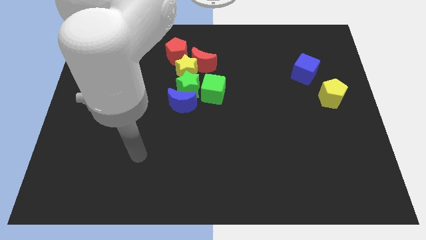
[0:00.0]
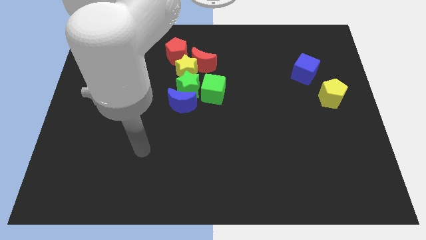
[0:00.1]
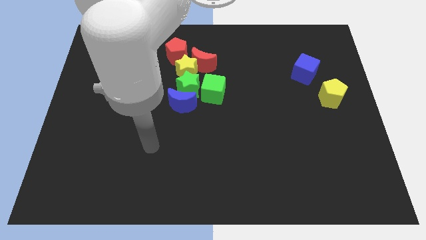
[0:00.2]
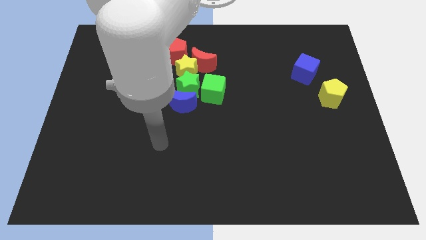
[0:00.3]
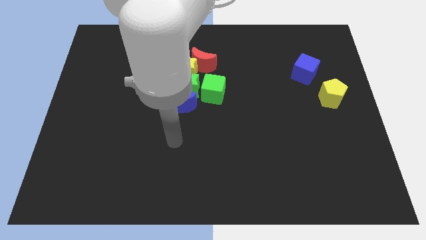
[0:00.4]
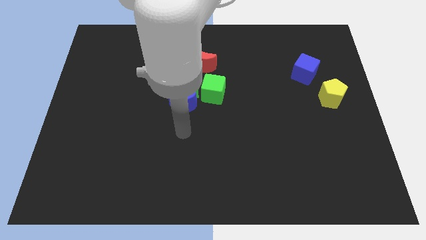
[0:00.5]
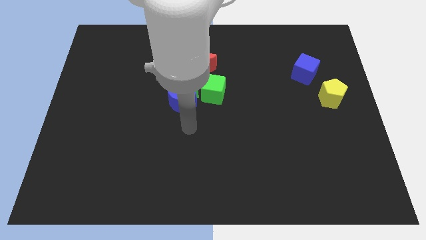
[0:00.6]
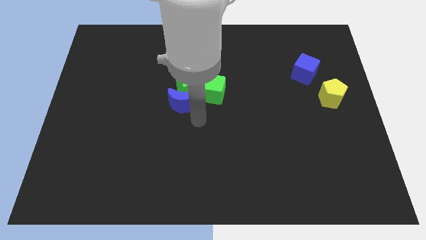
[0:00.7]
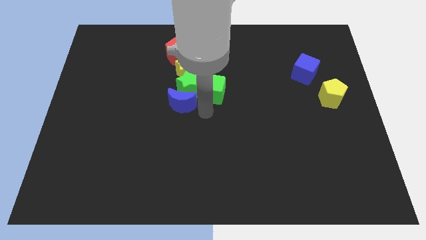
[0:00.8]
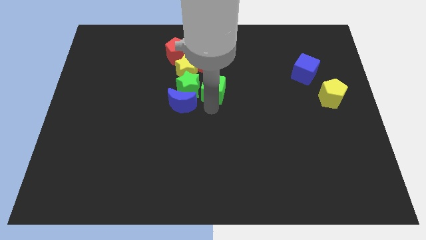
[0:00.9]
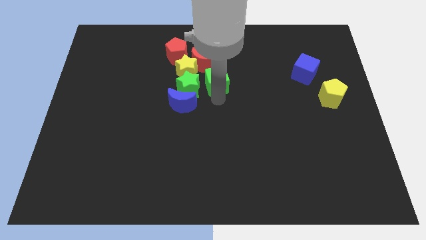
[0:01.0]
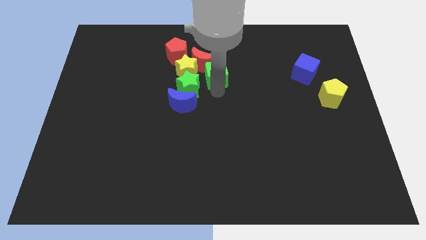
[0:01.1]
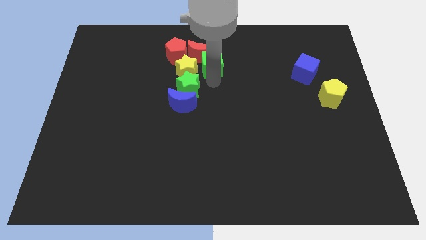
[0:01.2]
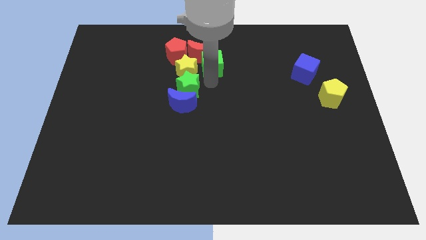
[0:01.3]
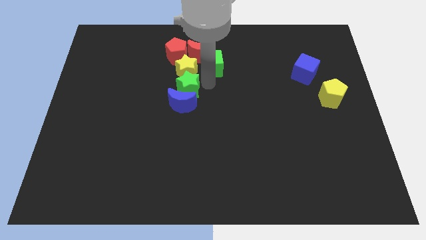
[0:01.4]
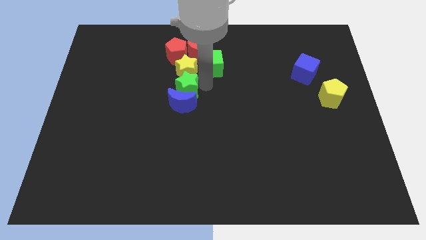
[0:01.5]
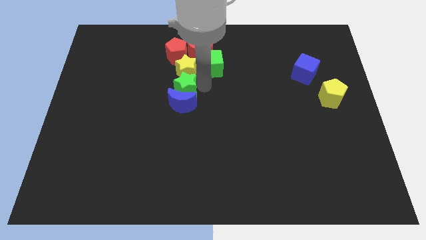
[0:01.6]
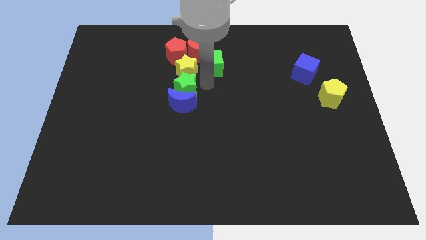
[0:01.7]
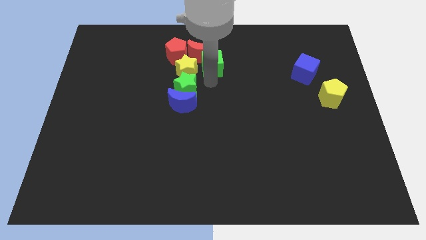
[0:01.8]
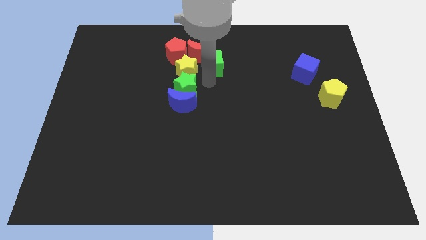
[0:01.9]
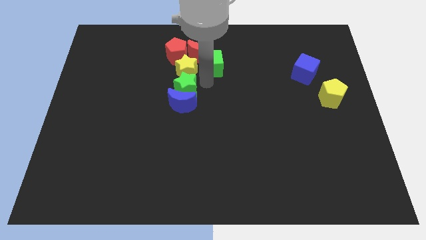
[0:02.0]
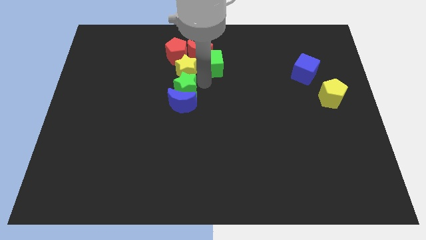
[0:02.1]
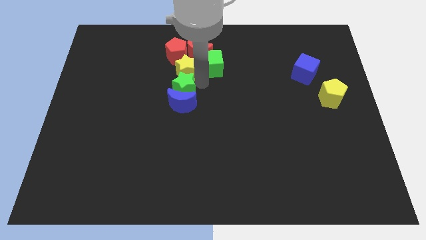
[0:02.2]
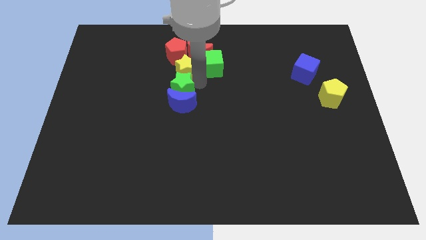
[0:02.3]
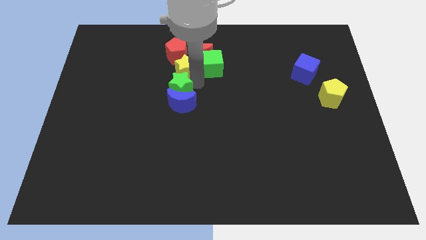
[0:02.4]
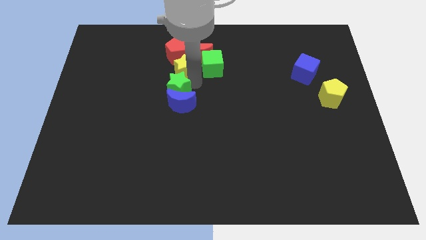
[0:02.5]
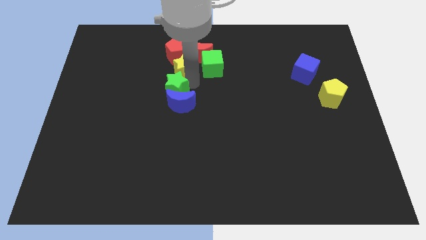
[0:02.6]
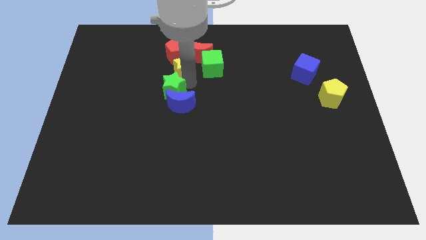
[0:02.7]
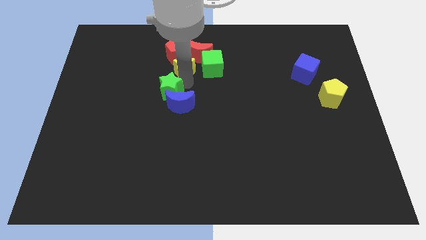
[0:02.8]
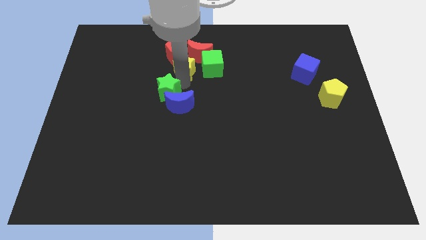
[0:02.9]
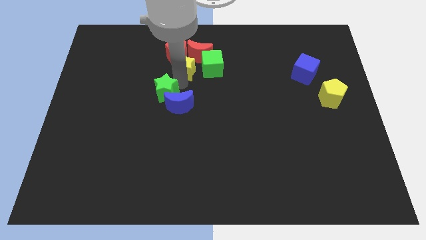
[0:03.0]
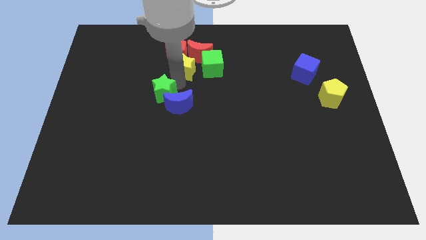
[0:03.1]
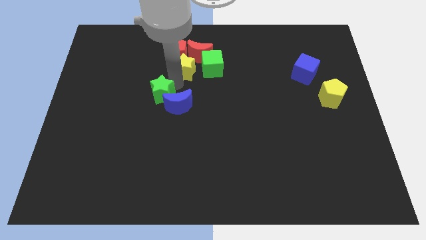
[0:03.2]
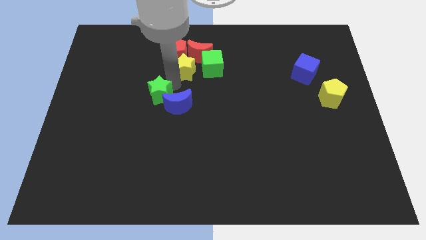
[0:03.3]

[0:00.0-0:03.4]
separate the green star from the group of blocks

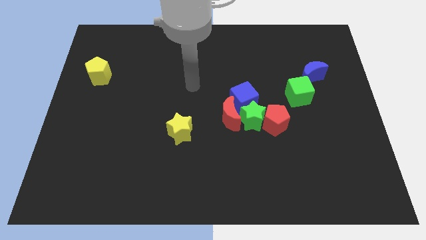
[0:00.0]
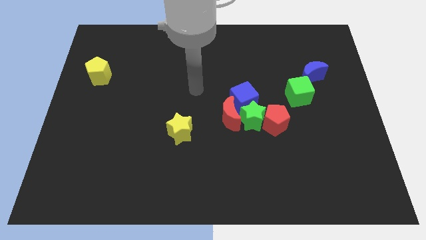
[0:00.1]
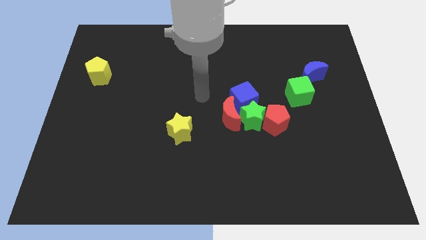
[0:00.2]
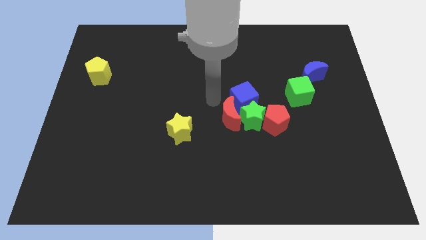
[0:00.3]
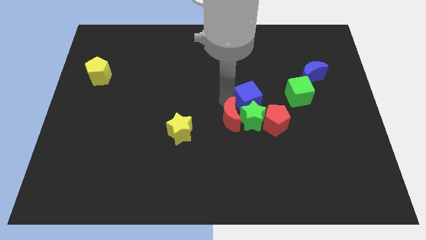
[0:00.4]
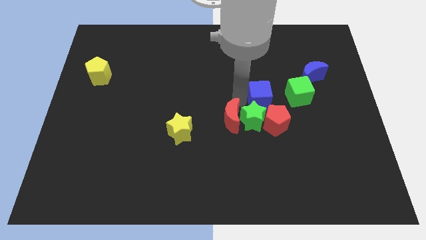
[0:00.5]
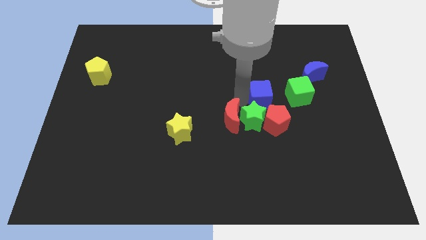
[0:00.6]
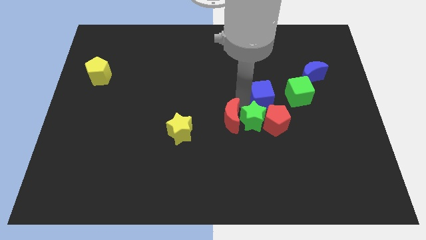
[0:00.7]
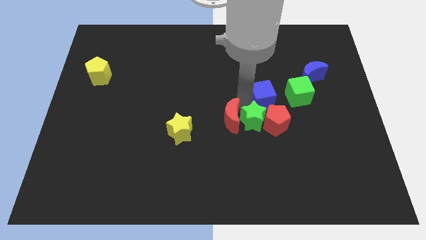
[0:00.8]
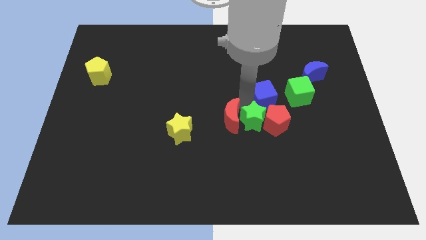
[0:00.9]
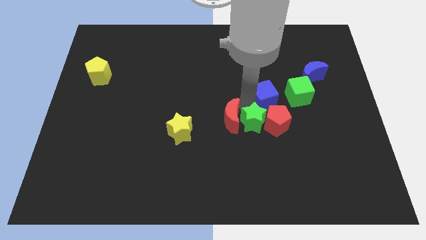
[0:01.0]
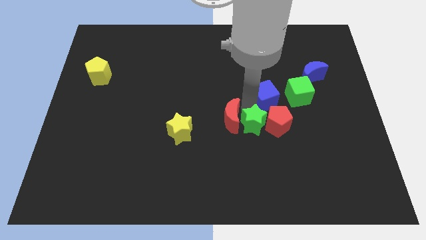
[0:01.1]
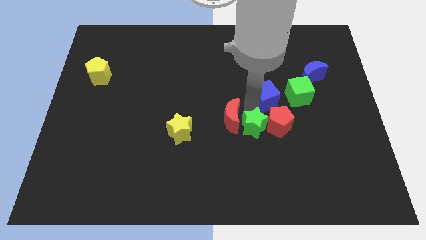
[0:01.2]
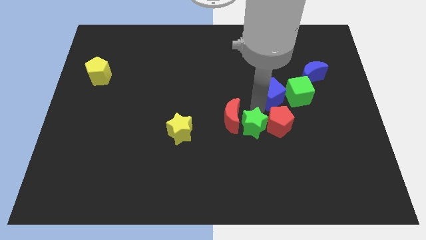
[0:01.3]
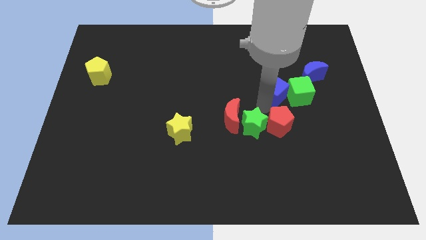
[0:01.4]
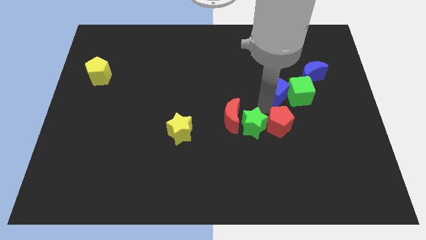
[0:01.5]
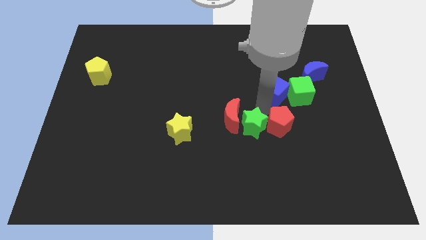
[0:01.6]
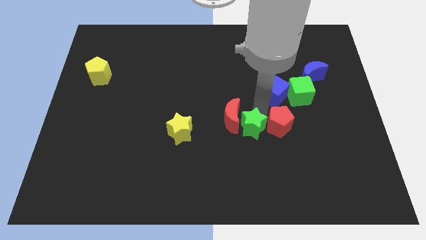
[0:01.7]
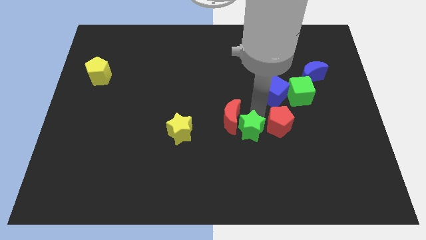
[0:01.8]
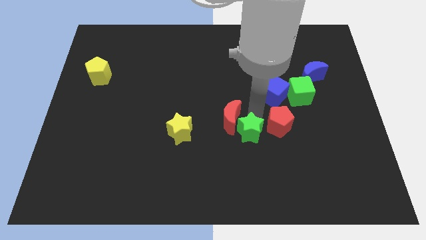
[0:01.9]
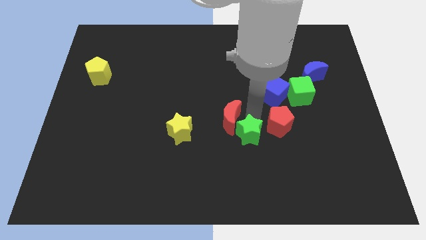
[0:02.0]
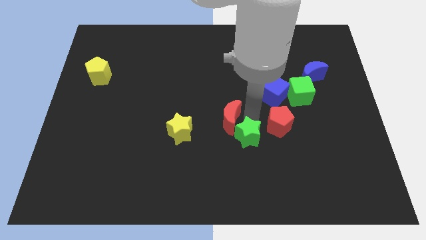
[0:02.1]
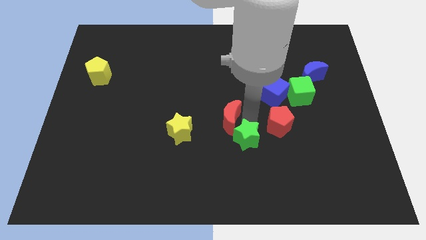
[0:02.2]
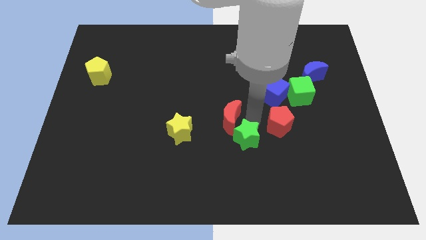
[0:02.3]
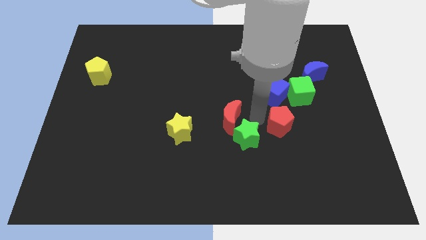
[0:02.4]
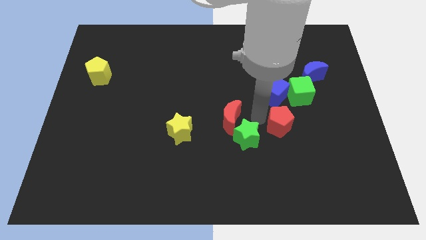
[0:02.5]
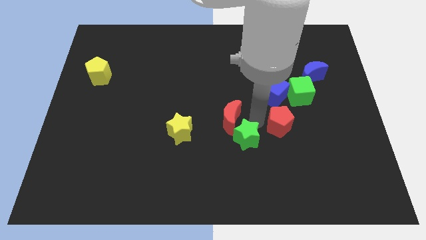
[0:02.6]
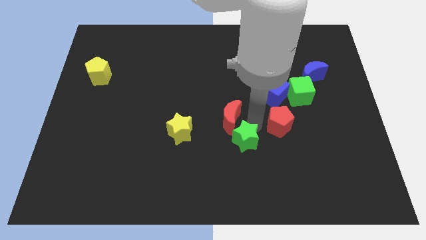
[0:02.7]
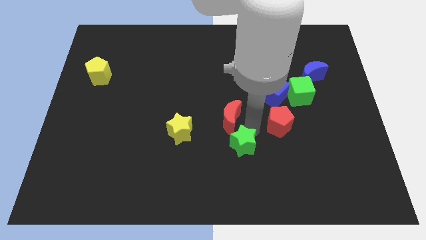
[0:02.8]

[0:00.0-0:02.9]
pull the green star apart from the red moon, red pentagon, and blue cube

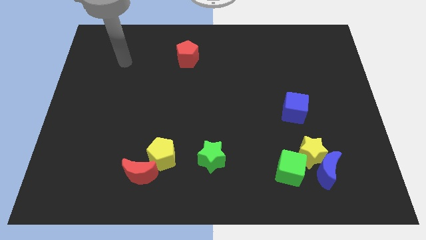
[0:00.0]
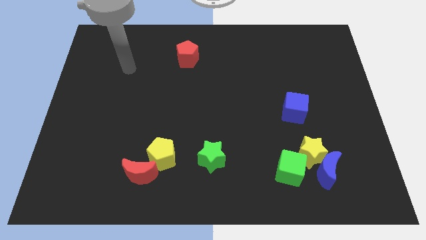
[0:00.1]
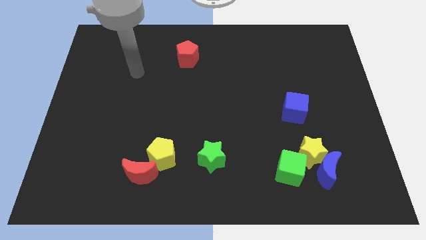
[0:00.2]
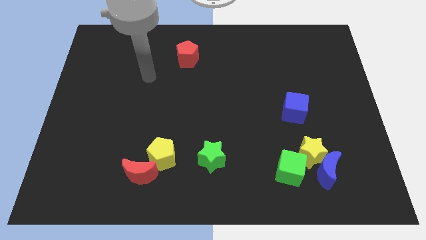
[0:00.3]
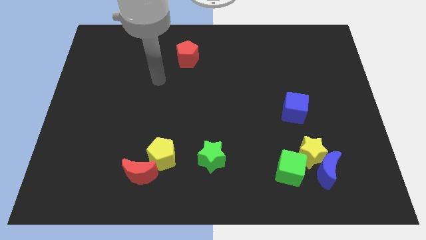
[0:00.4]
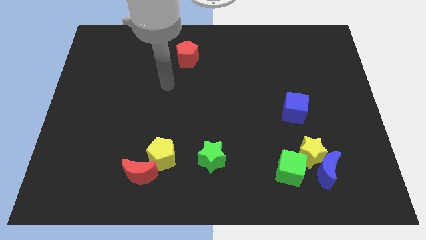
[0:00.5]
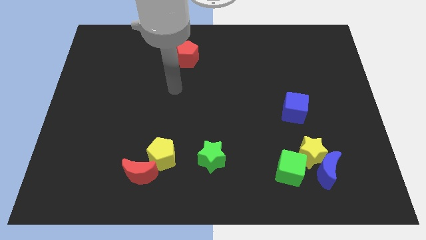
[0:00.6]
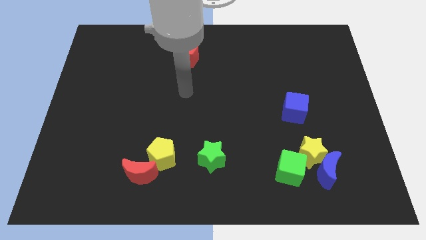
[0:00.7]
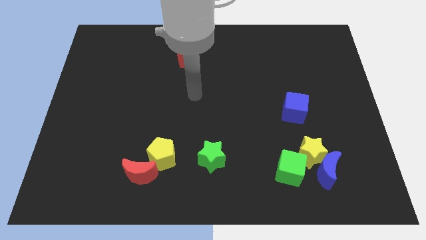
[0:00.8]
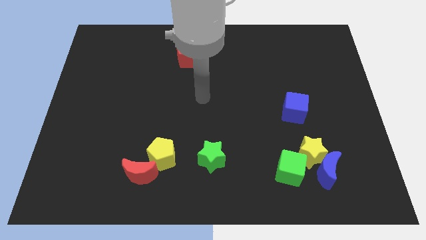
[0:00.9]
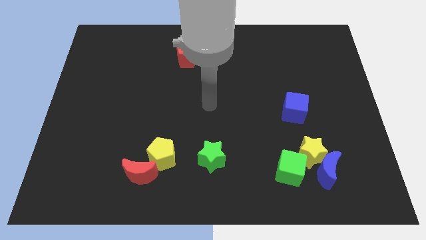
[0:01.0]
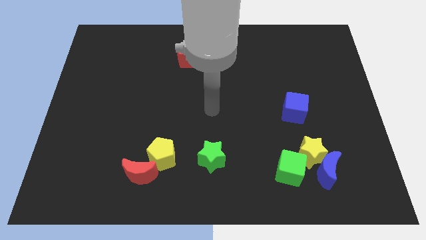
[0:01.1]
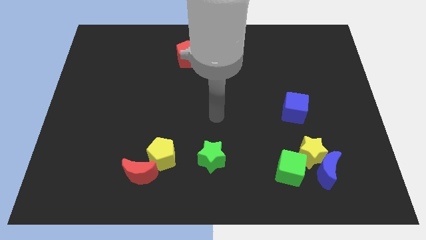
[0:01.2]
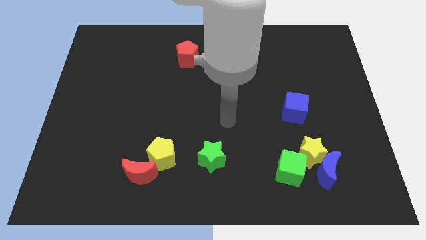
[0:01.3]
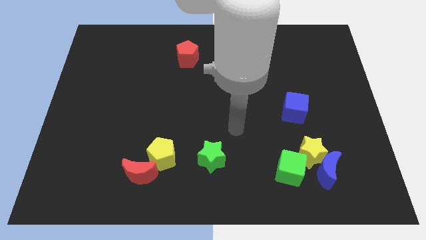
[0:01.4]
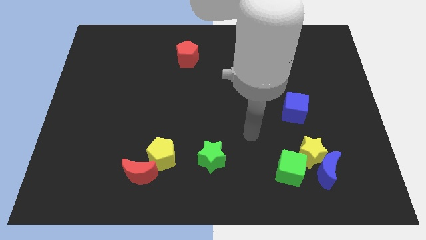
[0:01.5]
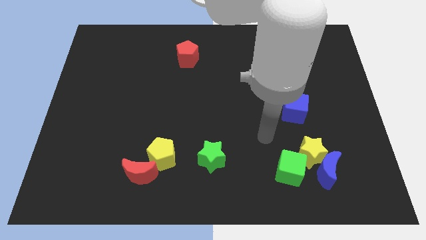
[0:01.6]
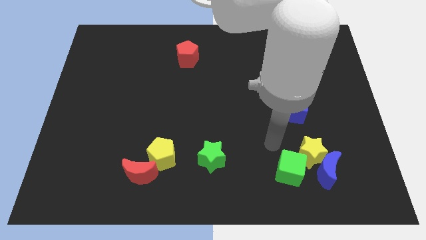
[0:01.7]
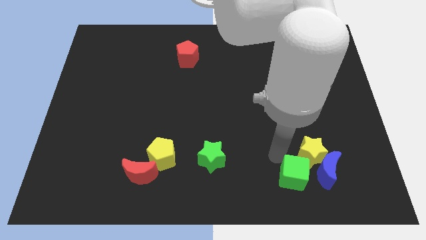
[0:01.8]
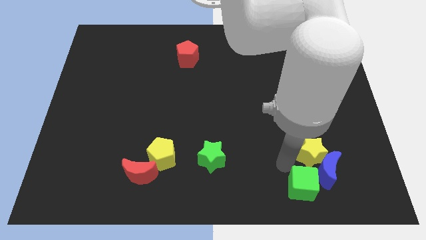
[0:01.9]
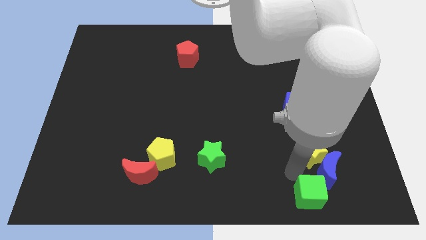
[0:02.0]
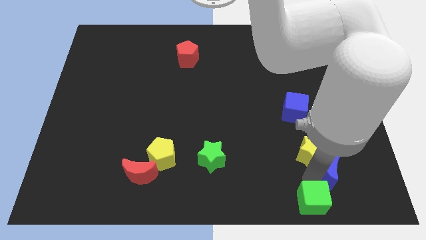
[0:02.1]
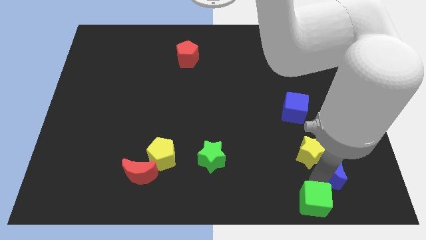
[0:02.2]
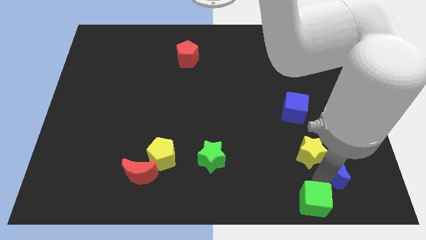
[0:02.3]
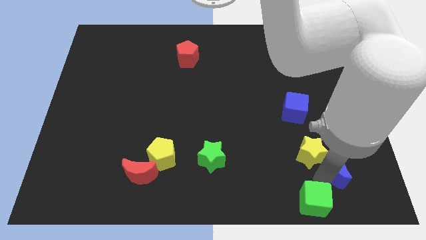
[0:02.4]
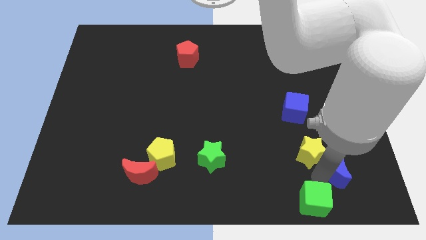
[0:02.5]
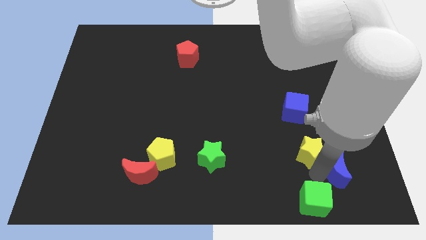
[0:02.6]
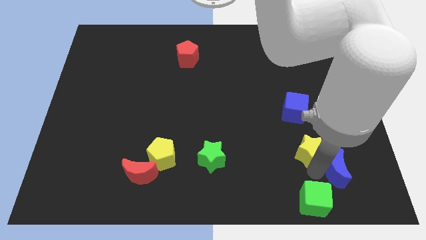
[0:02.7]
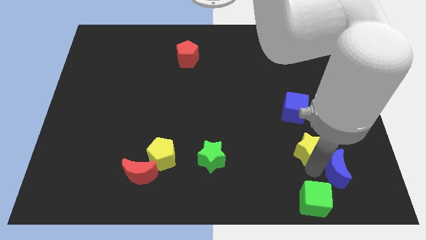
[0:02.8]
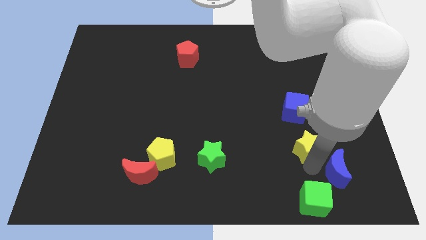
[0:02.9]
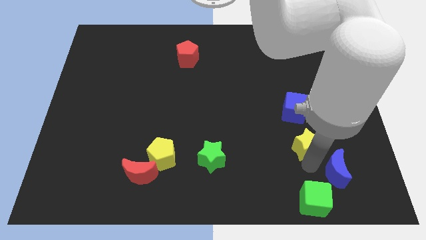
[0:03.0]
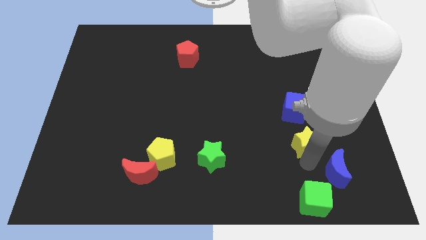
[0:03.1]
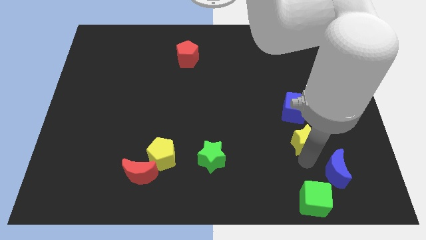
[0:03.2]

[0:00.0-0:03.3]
move the yellow star away from the blue moon and green cube

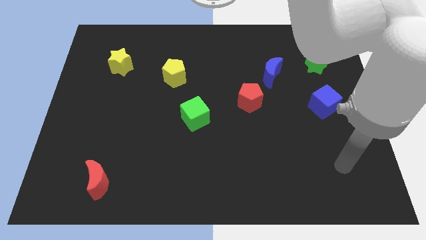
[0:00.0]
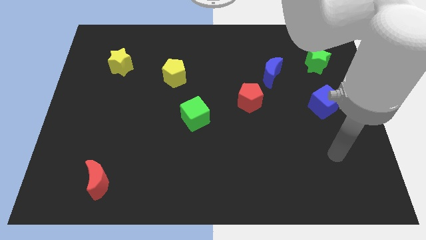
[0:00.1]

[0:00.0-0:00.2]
pull the red pentagon apart from the blue moon
